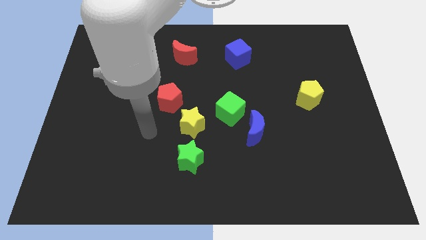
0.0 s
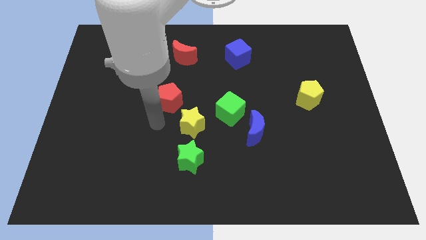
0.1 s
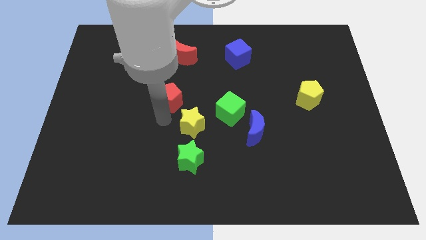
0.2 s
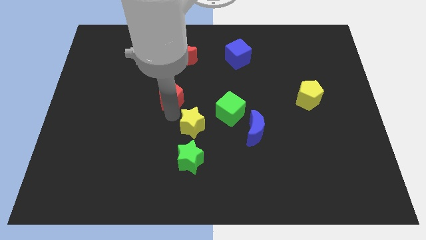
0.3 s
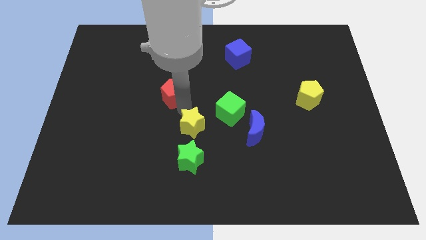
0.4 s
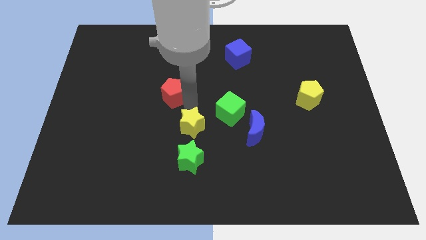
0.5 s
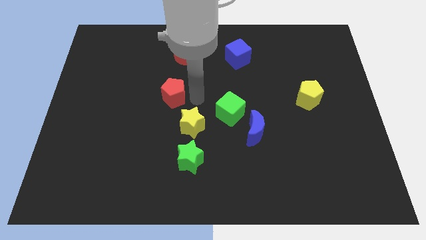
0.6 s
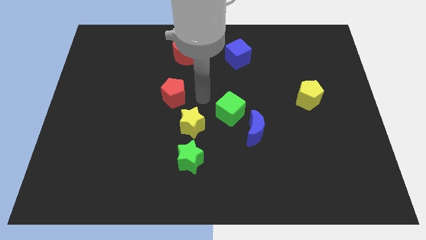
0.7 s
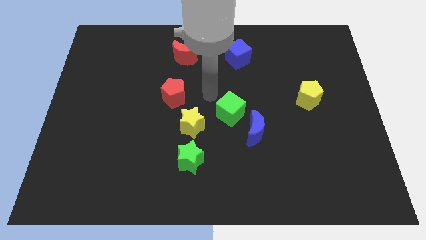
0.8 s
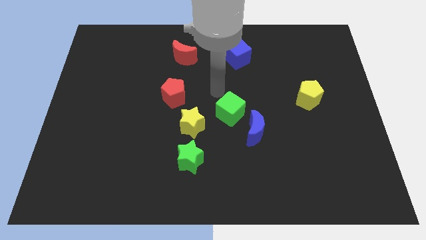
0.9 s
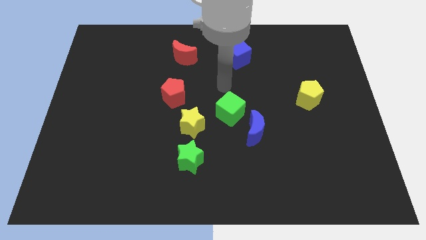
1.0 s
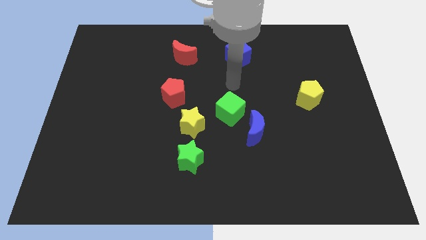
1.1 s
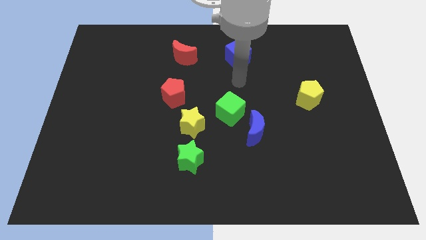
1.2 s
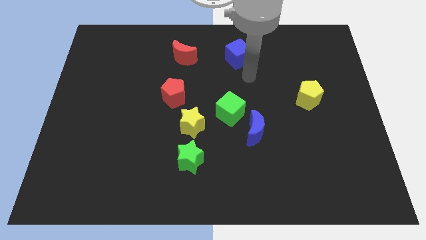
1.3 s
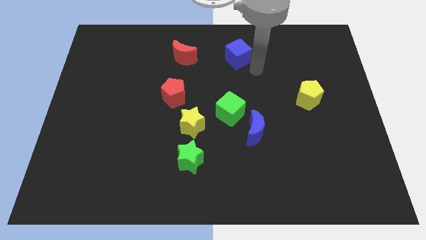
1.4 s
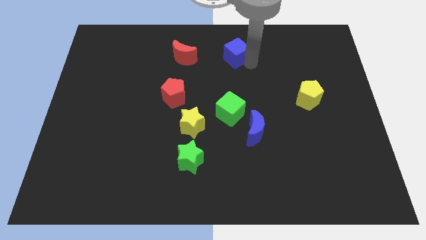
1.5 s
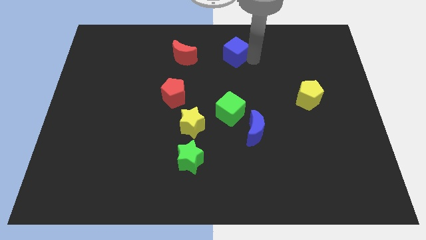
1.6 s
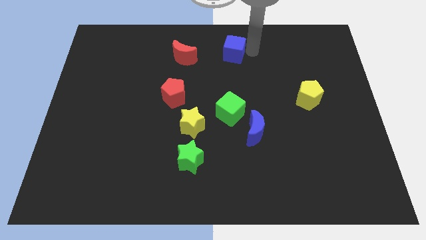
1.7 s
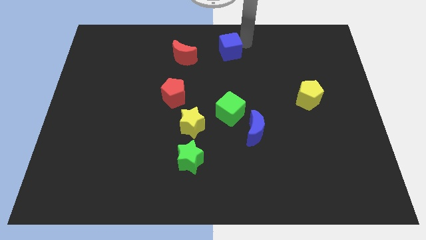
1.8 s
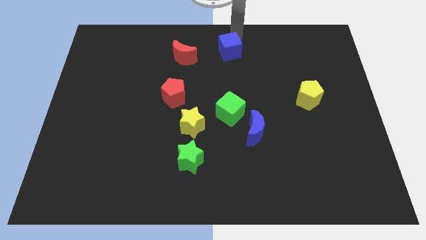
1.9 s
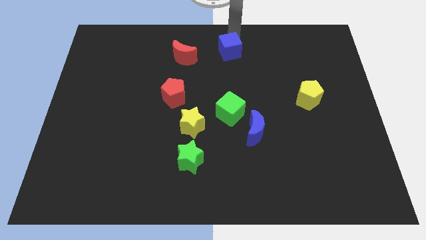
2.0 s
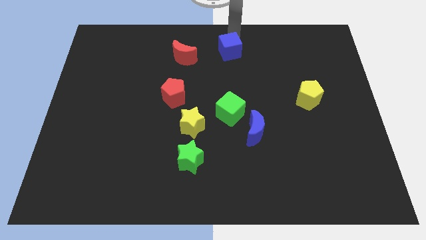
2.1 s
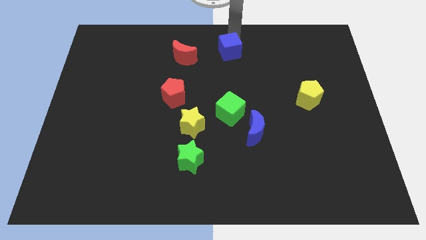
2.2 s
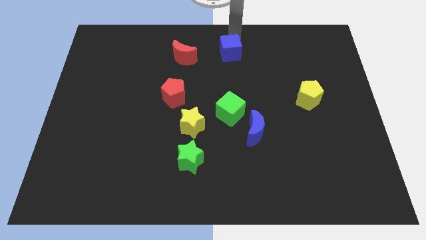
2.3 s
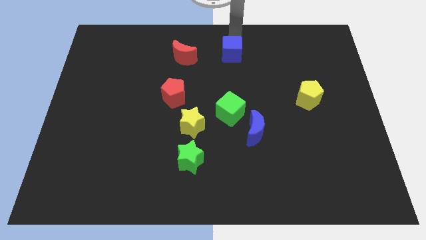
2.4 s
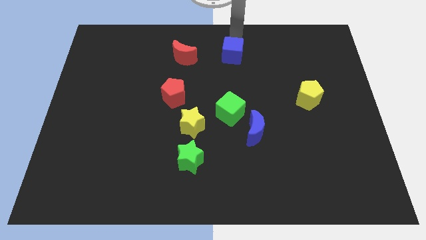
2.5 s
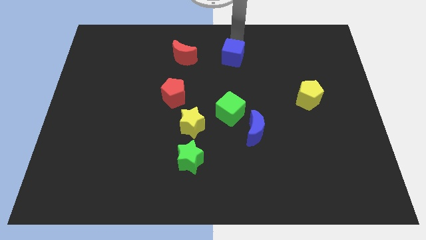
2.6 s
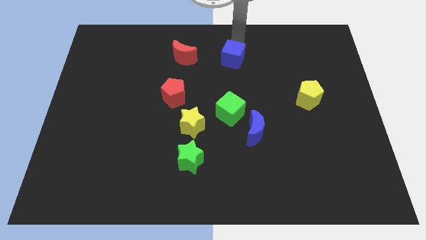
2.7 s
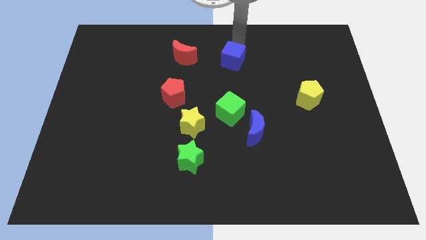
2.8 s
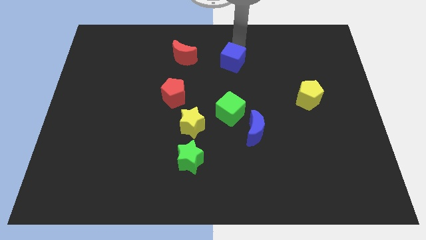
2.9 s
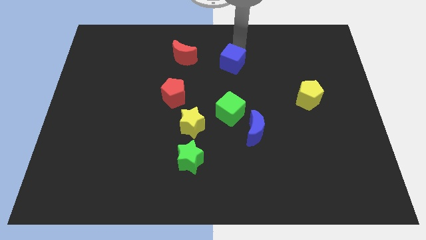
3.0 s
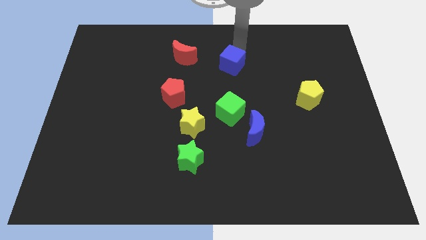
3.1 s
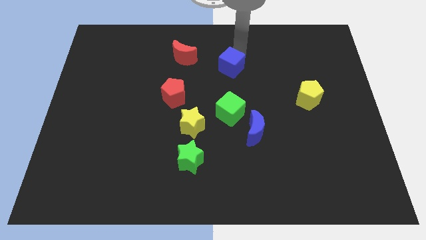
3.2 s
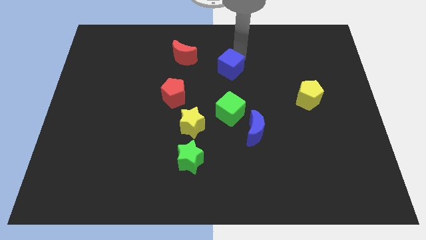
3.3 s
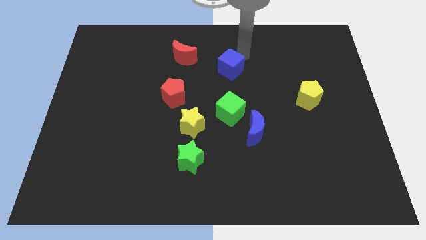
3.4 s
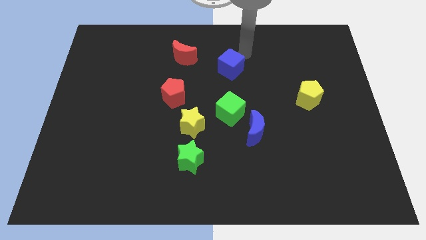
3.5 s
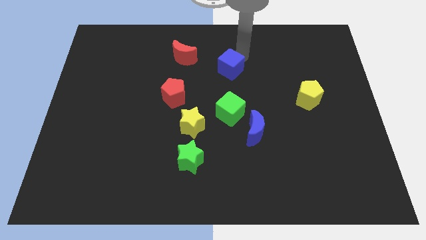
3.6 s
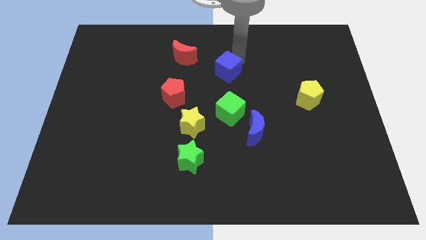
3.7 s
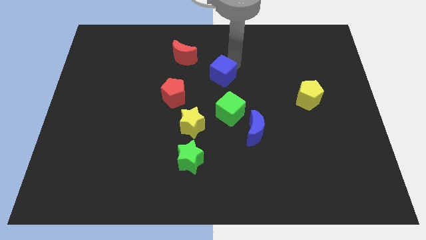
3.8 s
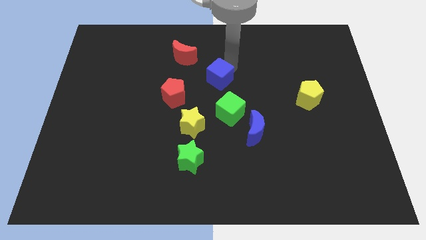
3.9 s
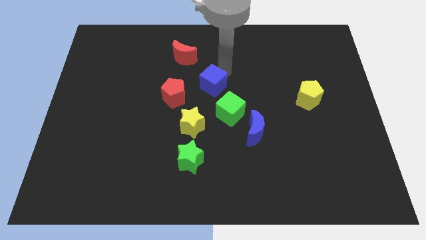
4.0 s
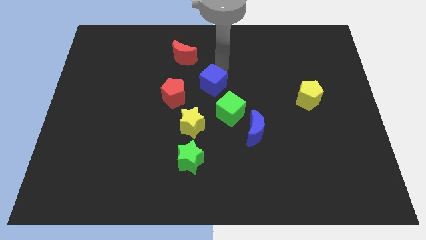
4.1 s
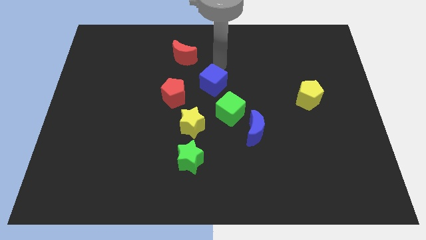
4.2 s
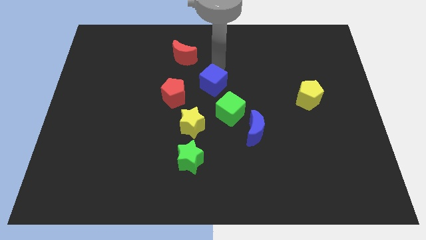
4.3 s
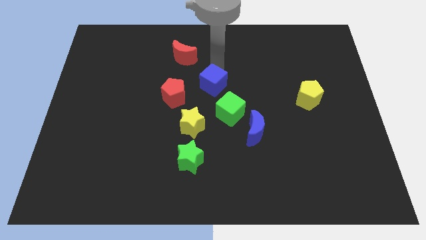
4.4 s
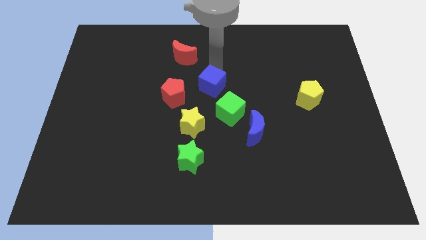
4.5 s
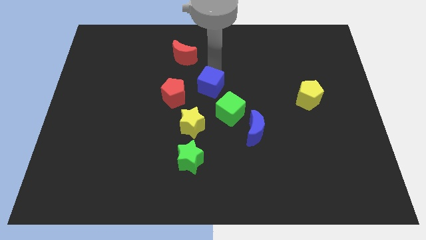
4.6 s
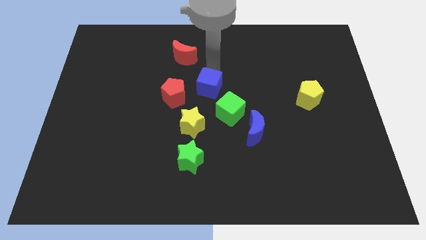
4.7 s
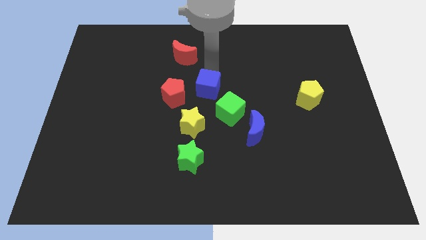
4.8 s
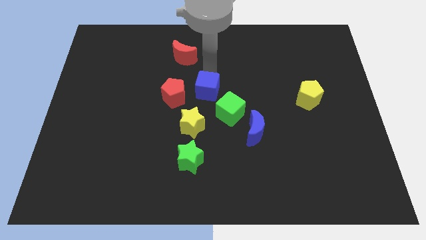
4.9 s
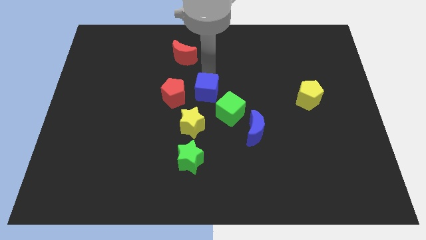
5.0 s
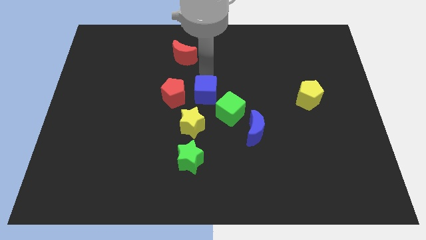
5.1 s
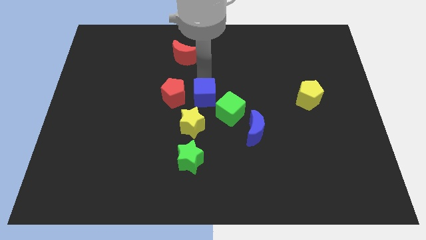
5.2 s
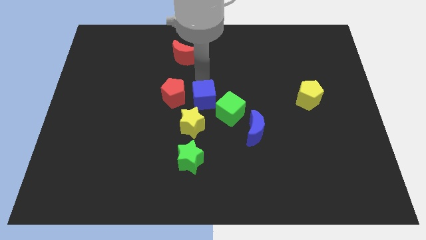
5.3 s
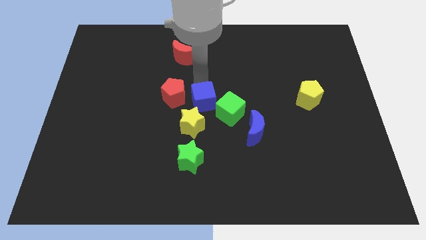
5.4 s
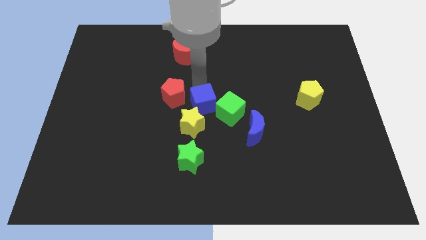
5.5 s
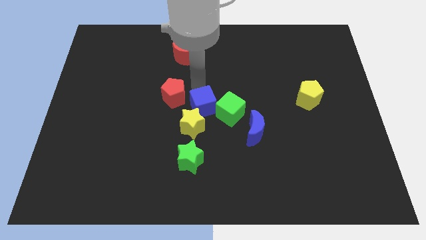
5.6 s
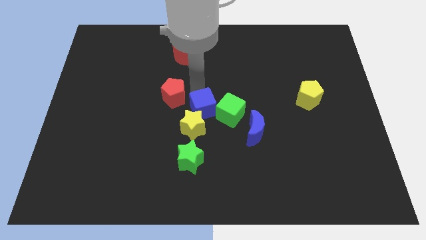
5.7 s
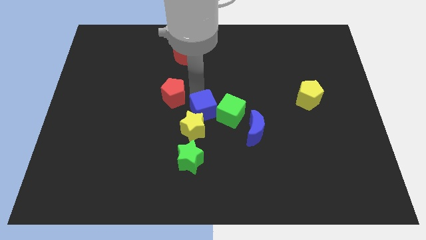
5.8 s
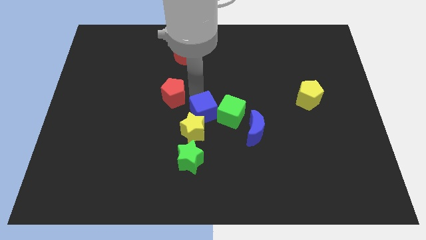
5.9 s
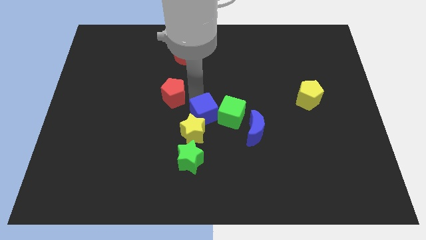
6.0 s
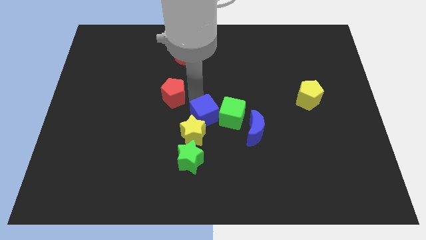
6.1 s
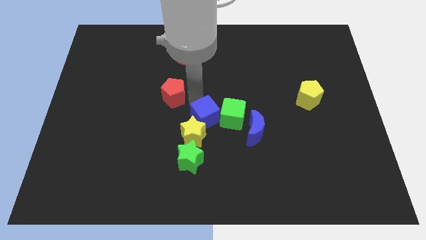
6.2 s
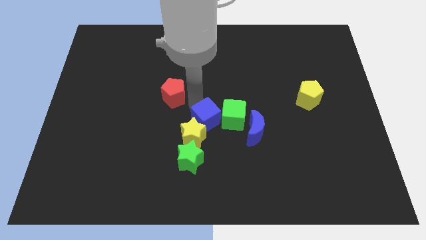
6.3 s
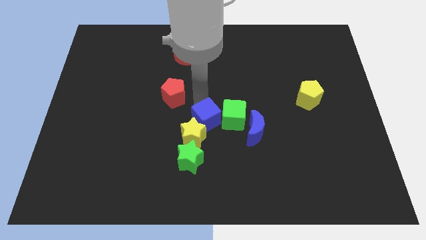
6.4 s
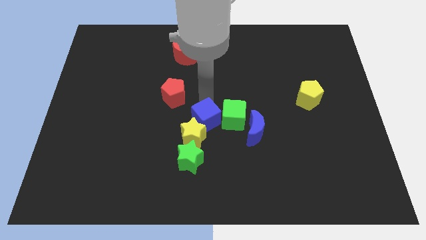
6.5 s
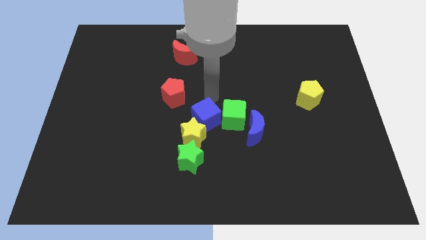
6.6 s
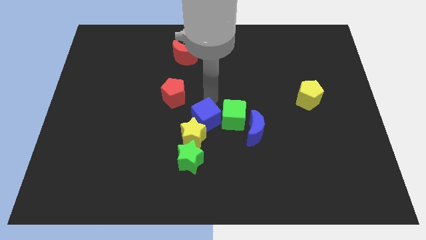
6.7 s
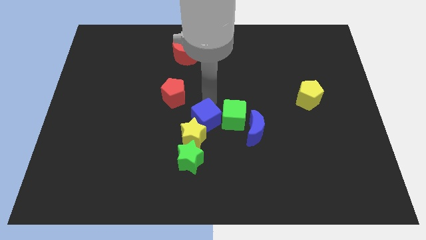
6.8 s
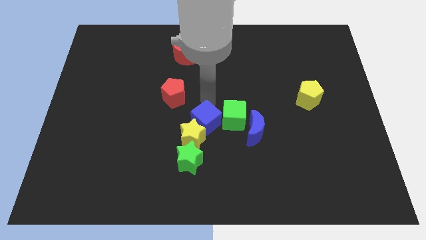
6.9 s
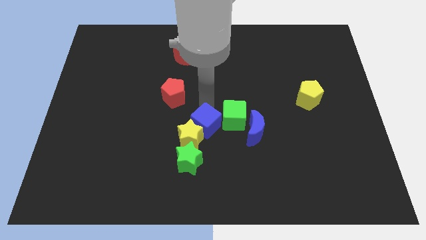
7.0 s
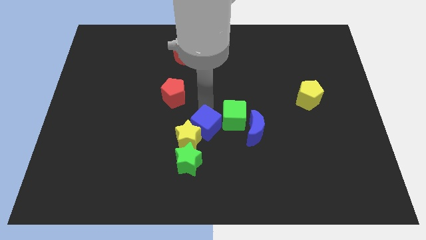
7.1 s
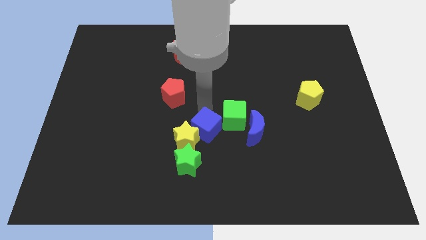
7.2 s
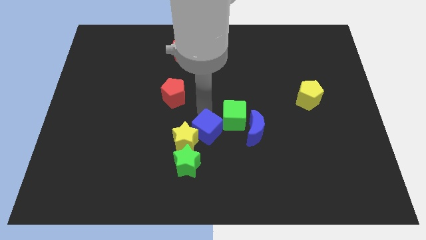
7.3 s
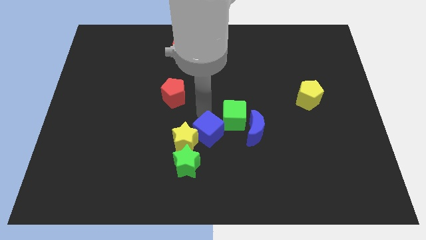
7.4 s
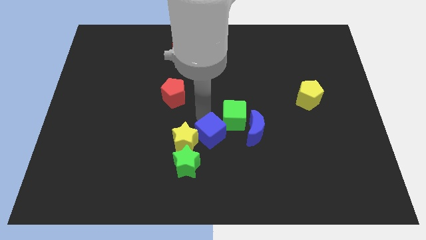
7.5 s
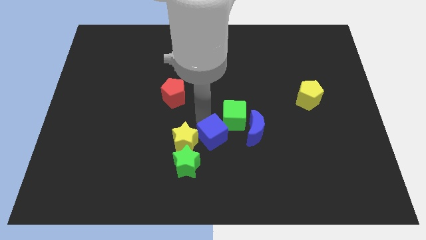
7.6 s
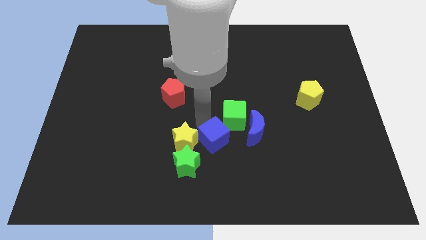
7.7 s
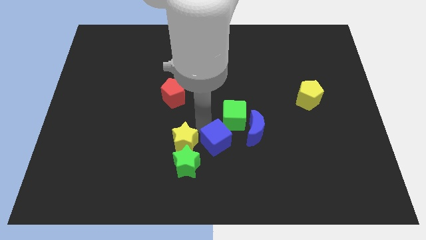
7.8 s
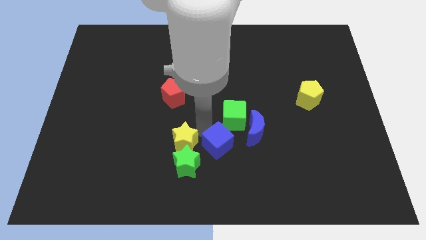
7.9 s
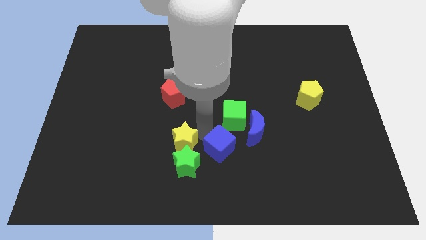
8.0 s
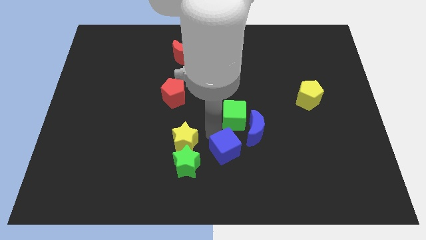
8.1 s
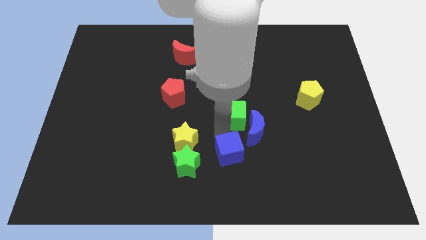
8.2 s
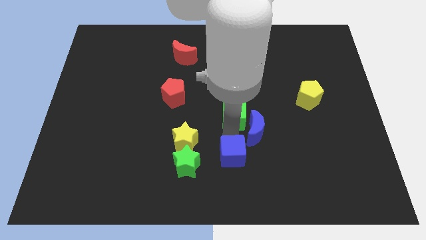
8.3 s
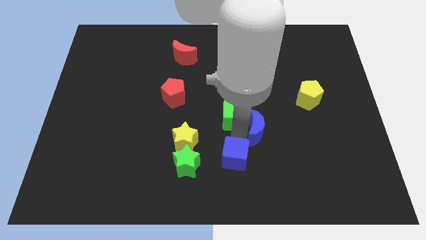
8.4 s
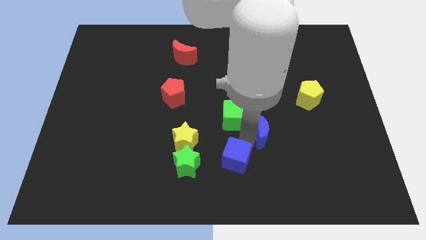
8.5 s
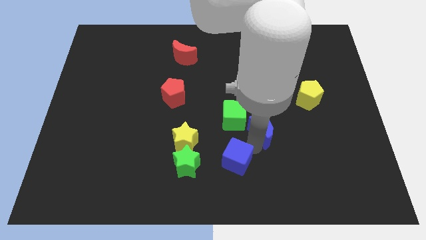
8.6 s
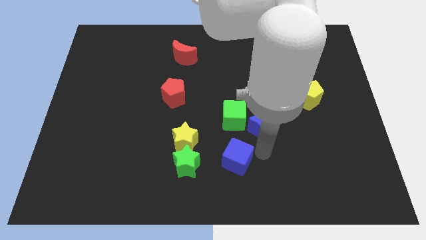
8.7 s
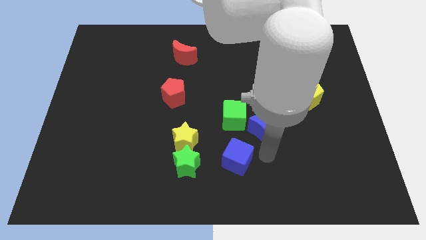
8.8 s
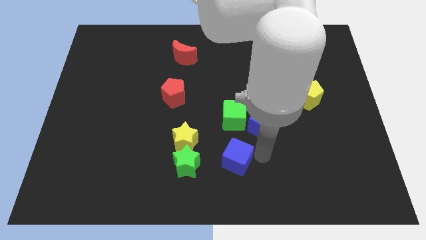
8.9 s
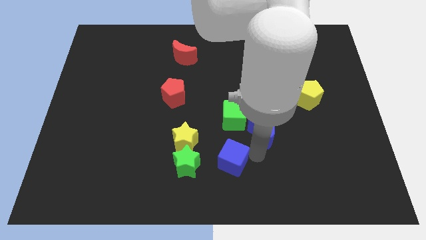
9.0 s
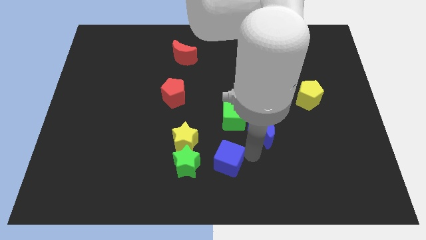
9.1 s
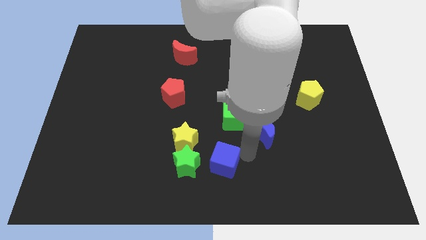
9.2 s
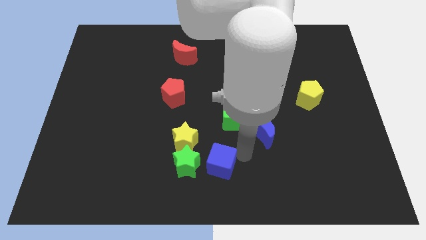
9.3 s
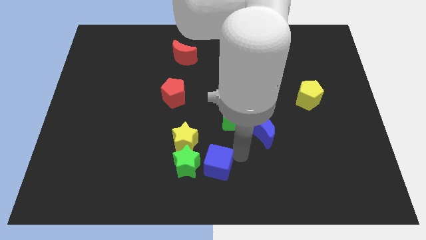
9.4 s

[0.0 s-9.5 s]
put the blue cube towards the green star
